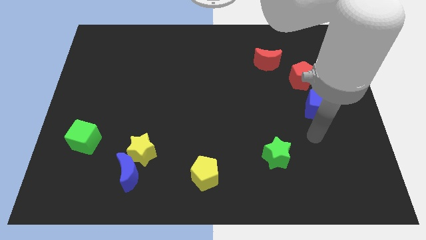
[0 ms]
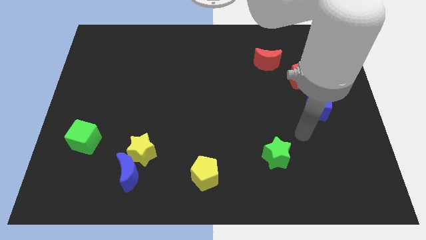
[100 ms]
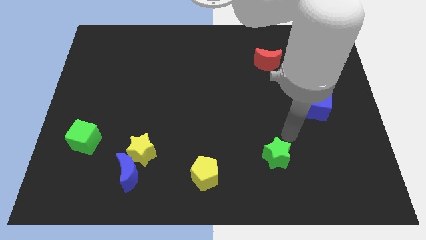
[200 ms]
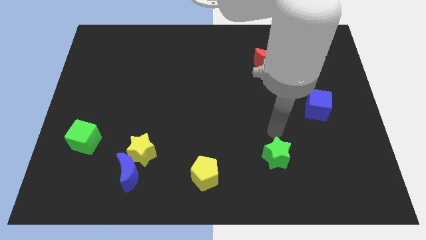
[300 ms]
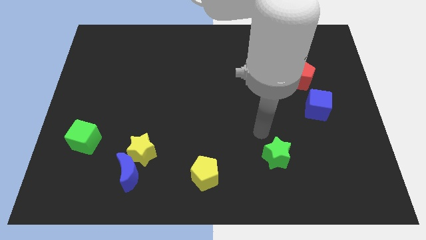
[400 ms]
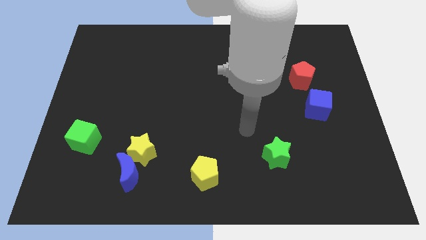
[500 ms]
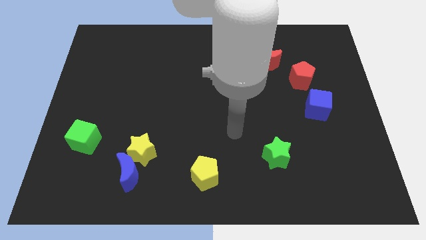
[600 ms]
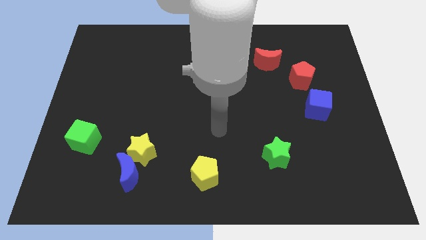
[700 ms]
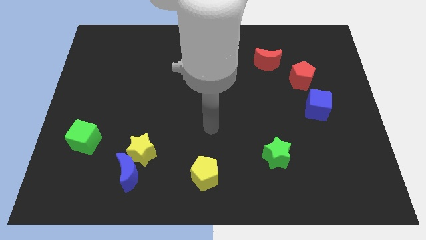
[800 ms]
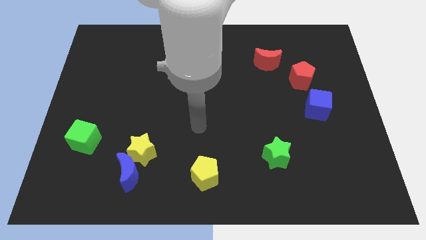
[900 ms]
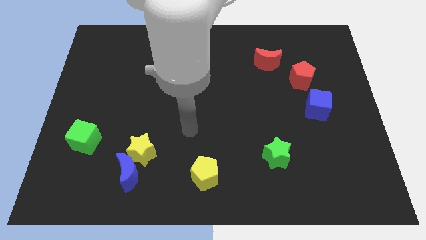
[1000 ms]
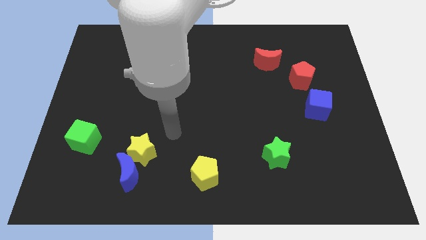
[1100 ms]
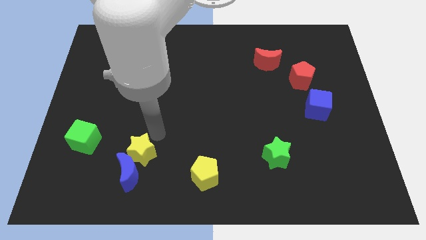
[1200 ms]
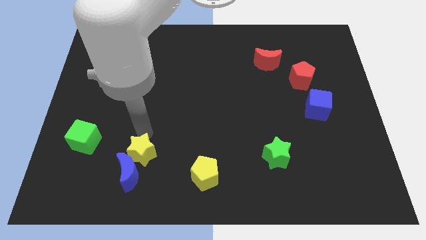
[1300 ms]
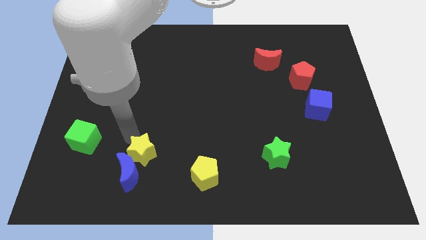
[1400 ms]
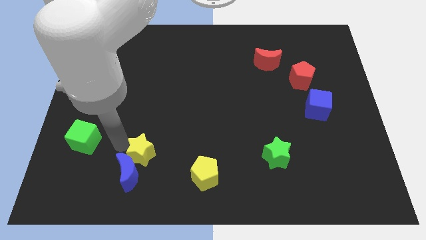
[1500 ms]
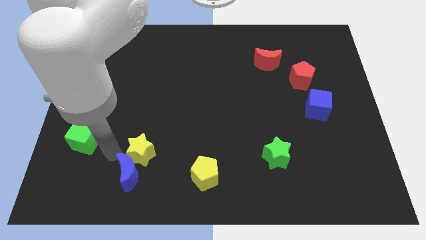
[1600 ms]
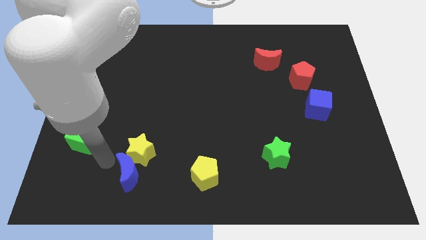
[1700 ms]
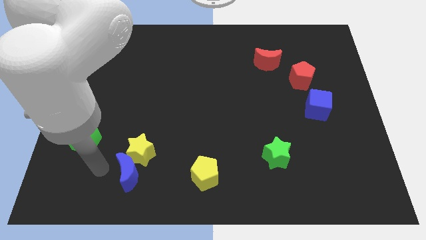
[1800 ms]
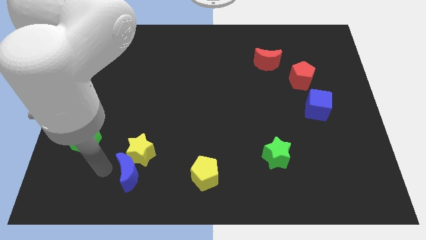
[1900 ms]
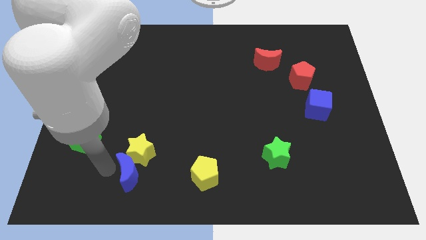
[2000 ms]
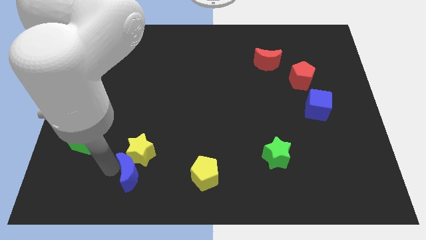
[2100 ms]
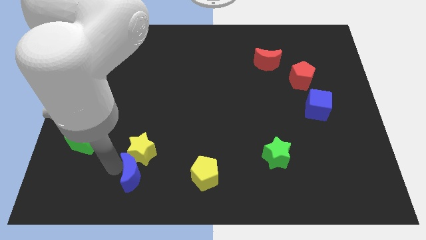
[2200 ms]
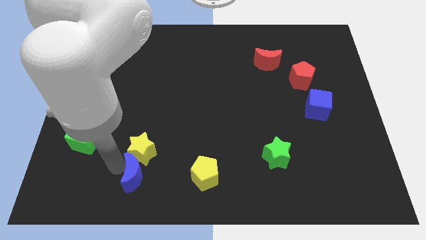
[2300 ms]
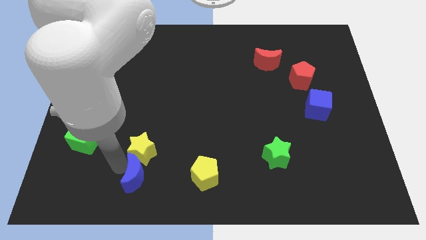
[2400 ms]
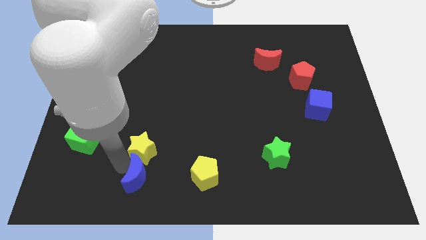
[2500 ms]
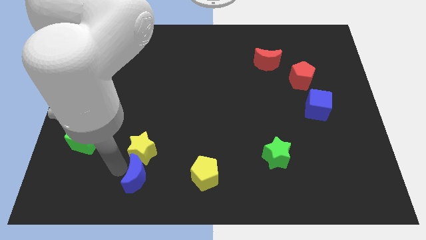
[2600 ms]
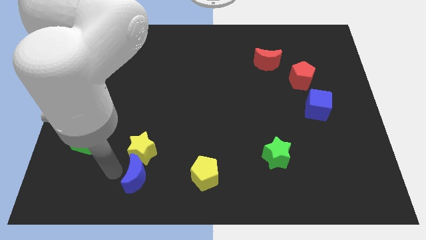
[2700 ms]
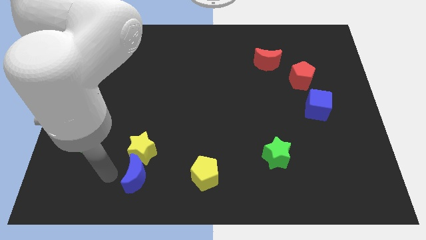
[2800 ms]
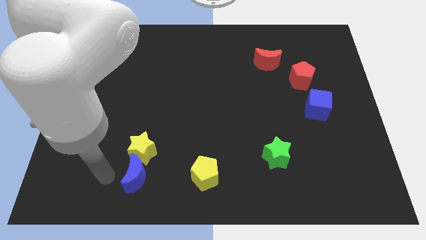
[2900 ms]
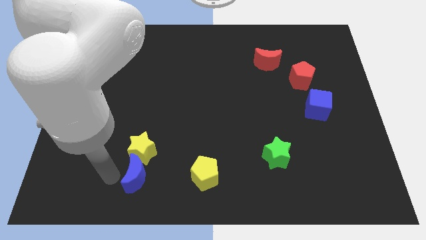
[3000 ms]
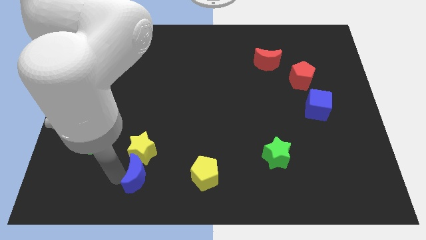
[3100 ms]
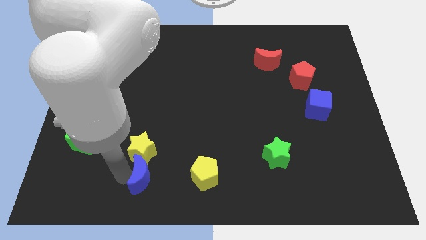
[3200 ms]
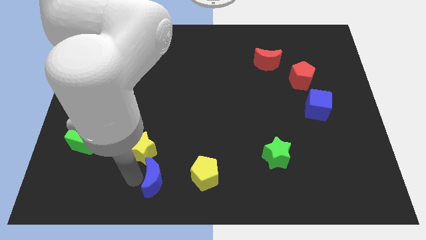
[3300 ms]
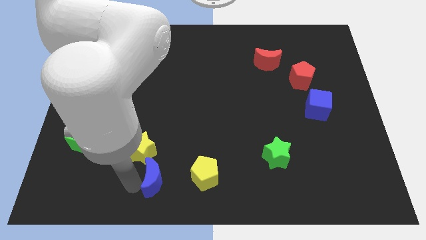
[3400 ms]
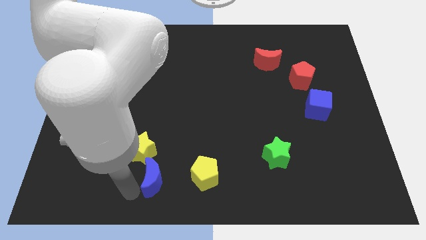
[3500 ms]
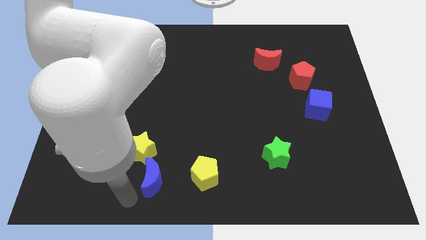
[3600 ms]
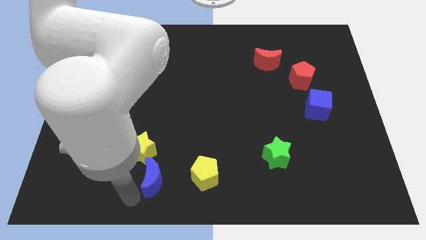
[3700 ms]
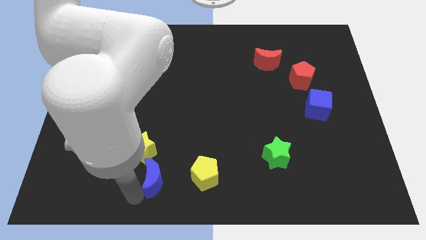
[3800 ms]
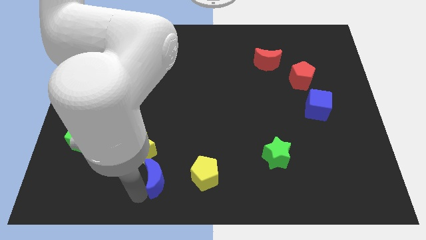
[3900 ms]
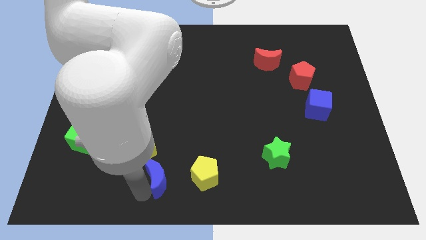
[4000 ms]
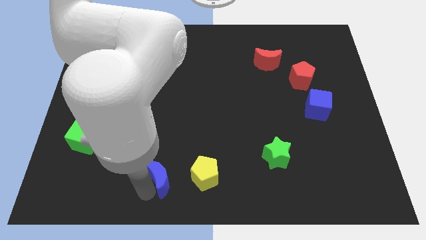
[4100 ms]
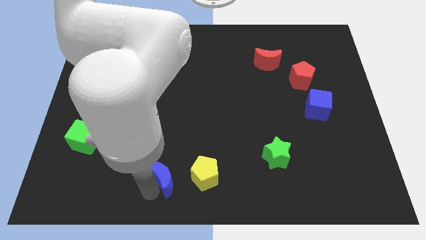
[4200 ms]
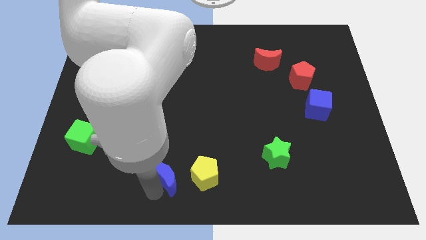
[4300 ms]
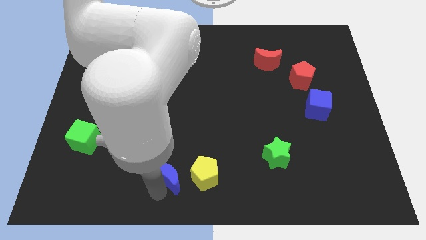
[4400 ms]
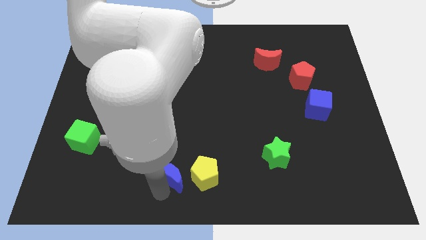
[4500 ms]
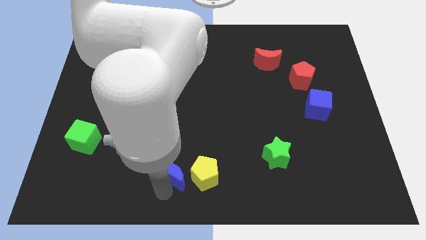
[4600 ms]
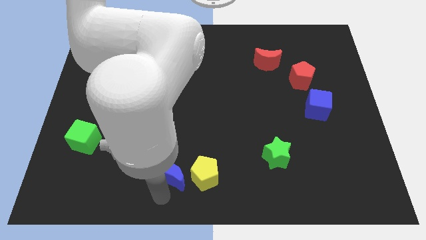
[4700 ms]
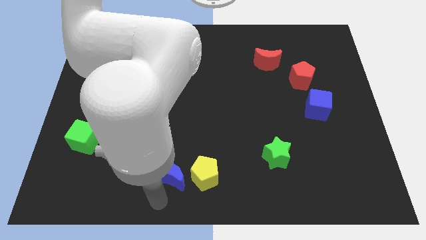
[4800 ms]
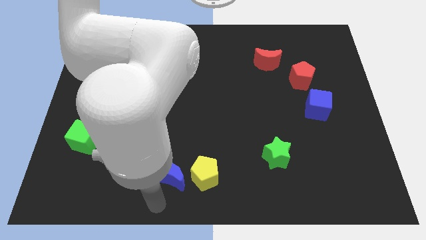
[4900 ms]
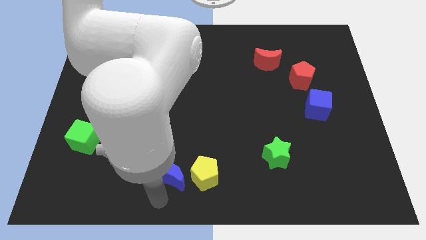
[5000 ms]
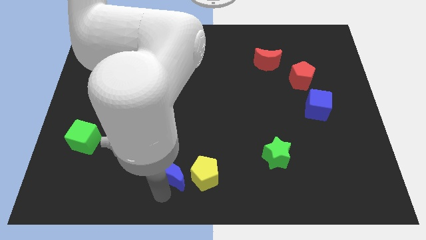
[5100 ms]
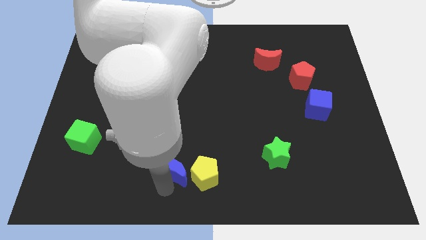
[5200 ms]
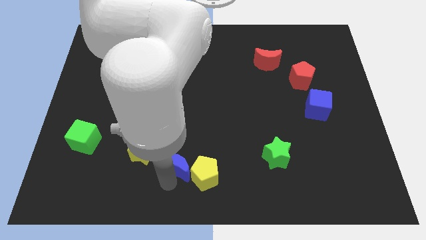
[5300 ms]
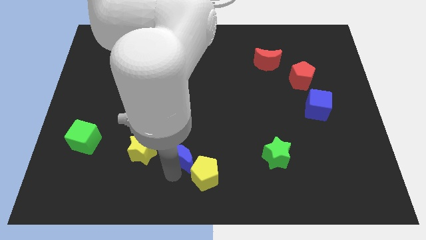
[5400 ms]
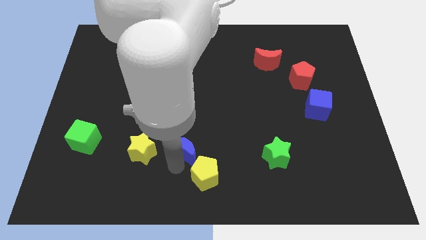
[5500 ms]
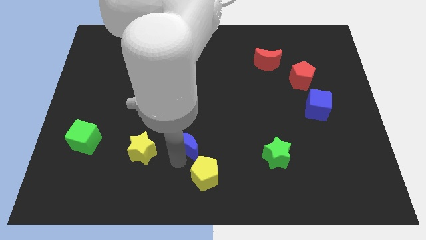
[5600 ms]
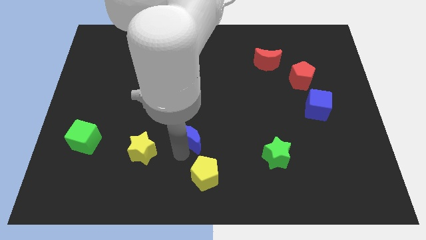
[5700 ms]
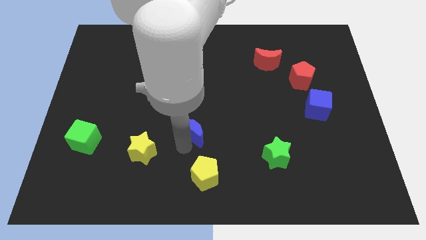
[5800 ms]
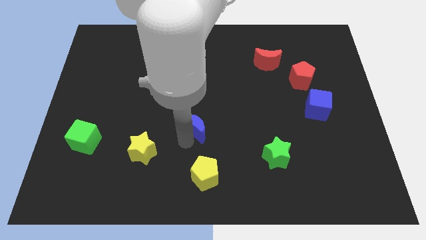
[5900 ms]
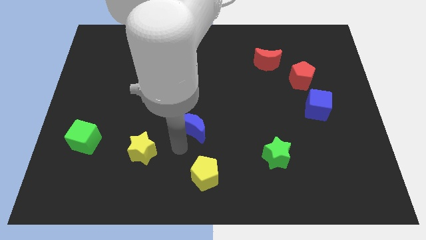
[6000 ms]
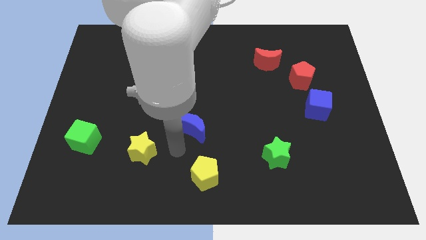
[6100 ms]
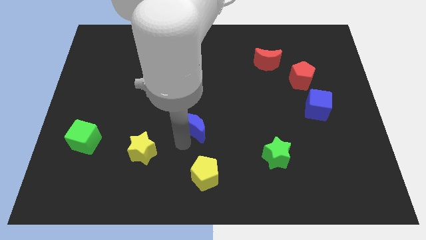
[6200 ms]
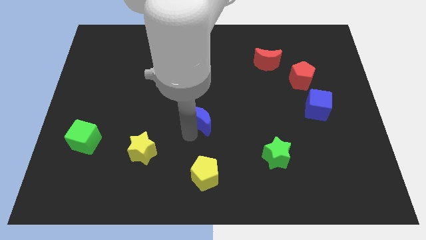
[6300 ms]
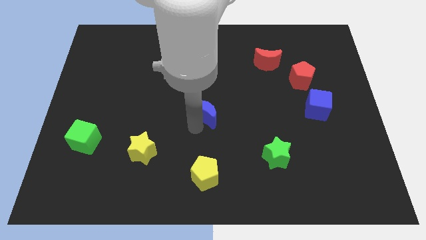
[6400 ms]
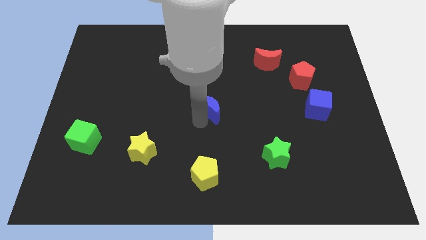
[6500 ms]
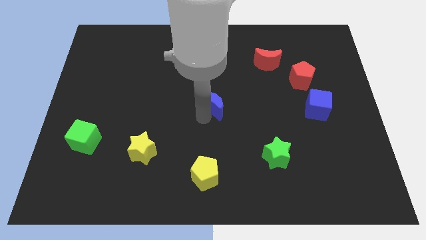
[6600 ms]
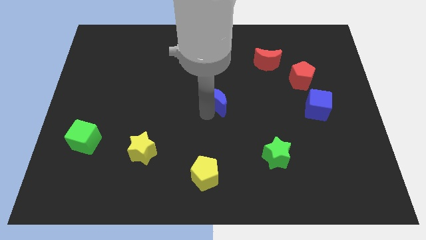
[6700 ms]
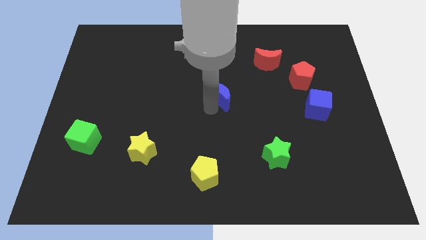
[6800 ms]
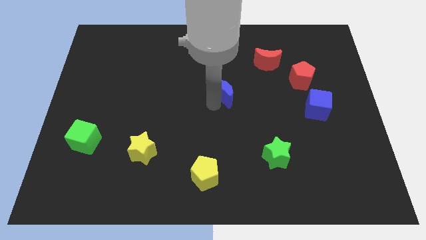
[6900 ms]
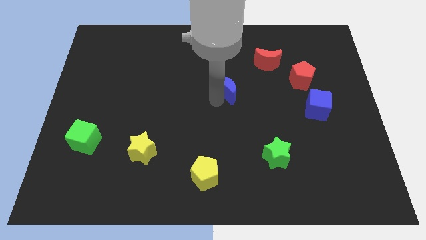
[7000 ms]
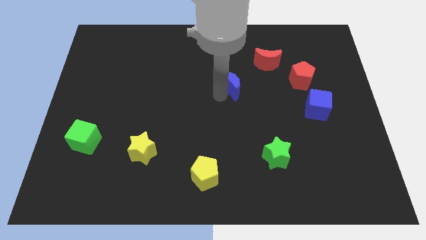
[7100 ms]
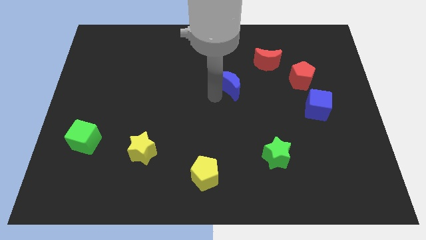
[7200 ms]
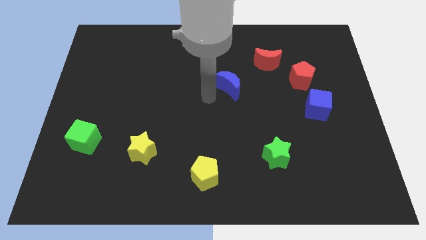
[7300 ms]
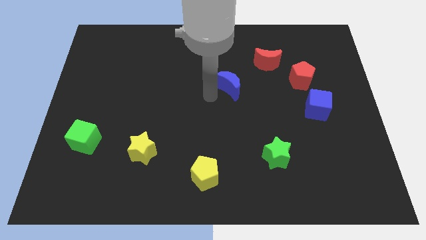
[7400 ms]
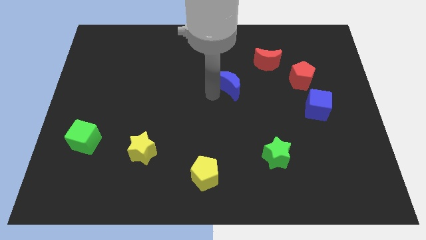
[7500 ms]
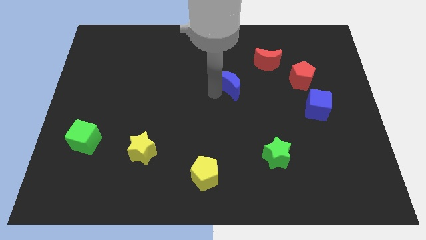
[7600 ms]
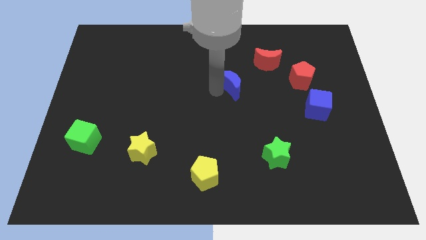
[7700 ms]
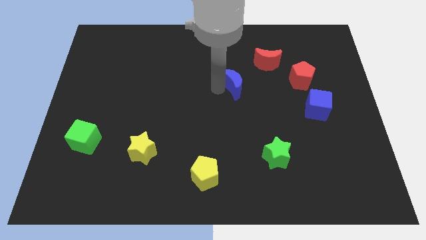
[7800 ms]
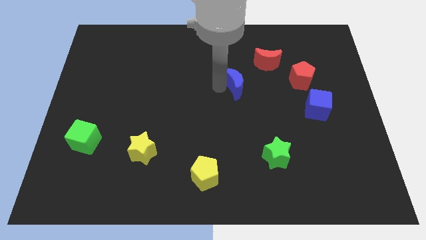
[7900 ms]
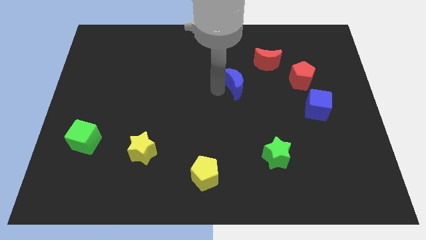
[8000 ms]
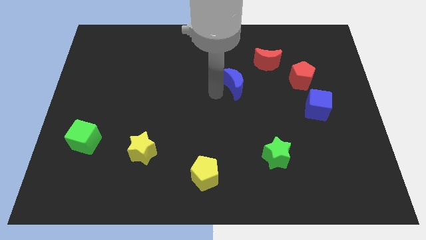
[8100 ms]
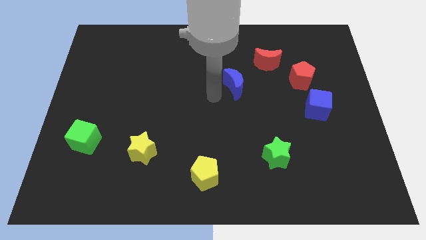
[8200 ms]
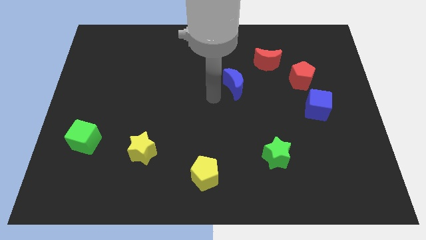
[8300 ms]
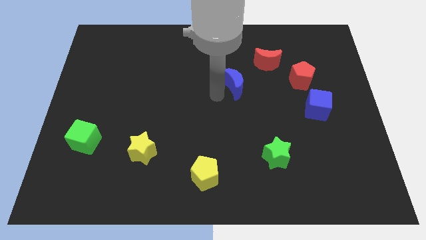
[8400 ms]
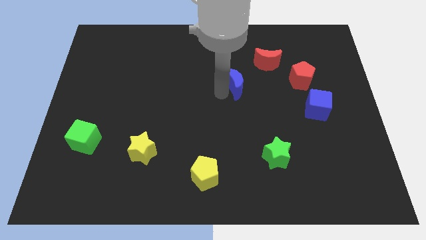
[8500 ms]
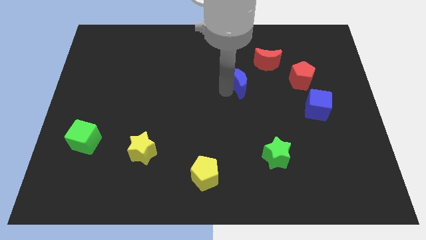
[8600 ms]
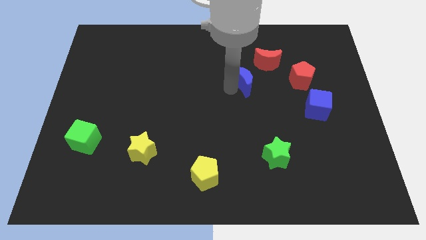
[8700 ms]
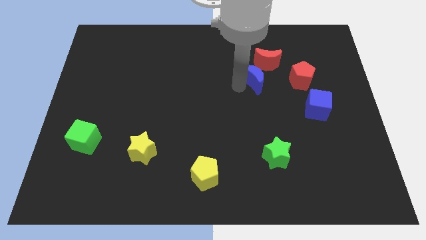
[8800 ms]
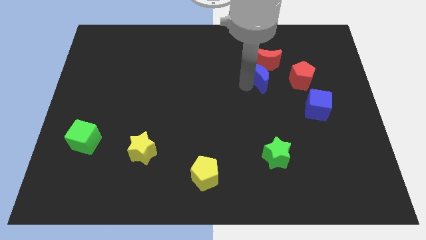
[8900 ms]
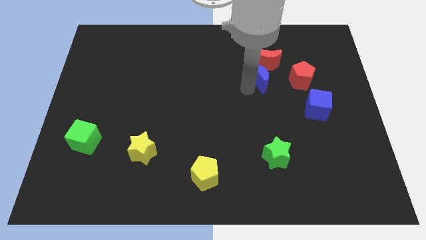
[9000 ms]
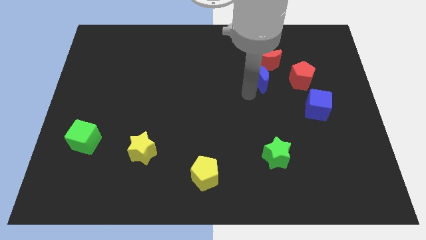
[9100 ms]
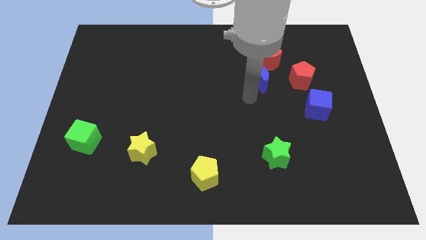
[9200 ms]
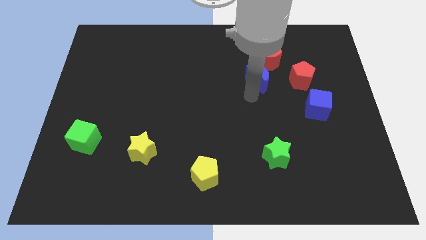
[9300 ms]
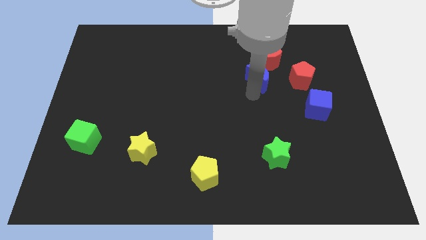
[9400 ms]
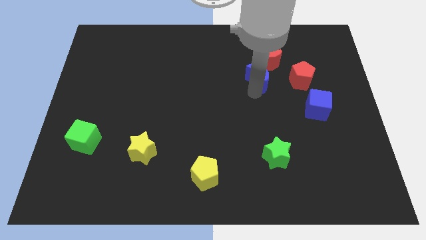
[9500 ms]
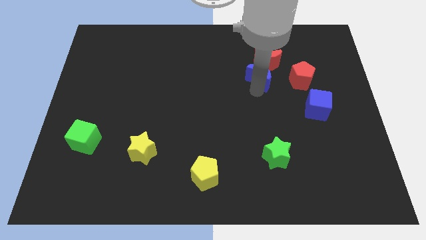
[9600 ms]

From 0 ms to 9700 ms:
put the blue moon next to the red moon
